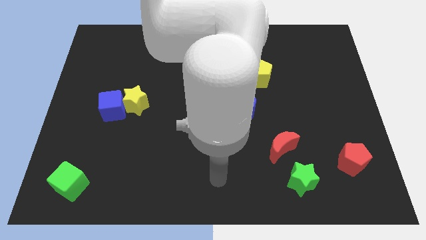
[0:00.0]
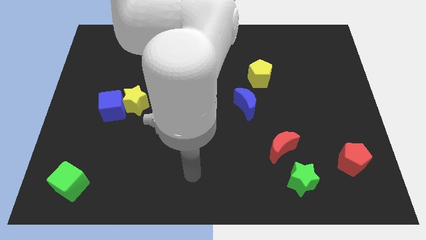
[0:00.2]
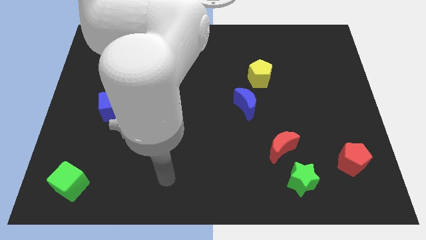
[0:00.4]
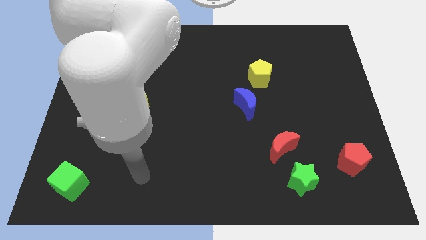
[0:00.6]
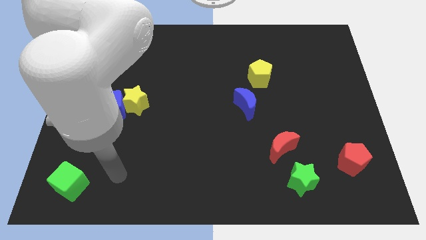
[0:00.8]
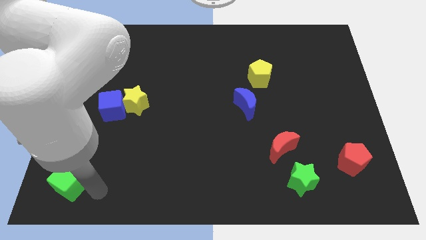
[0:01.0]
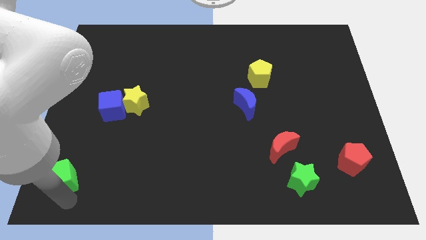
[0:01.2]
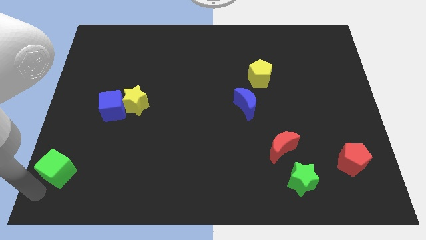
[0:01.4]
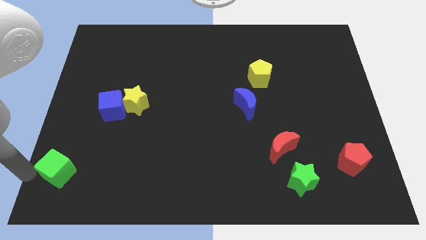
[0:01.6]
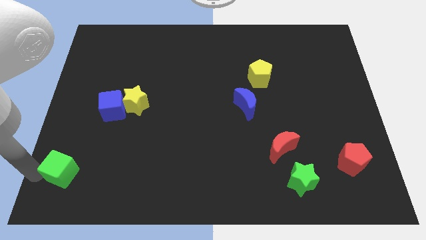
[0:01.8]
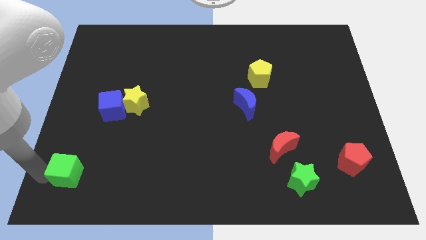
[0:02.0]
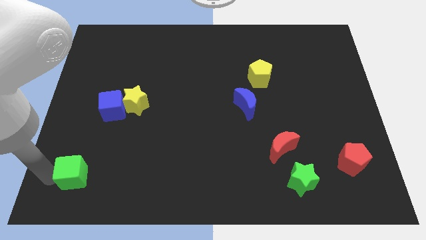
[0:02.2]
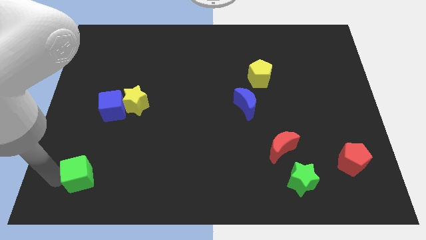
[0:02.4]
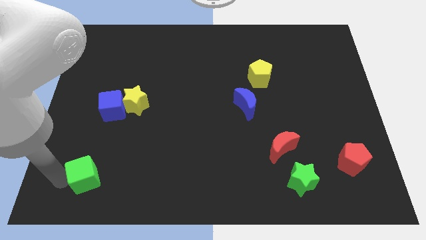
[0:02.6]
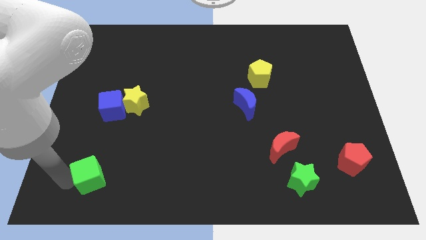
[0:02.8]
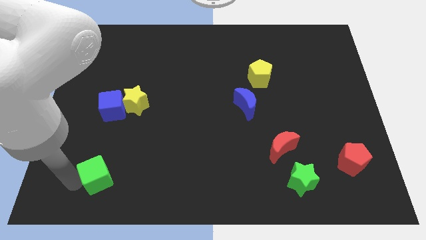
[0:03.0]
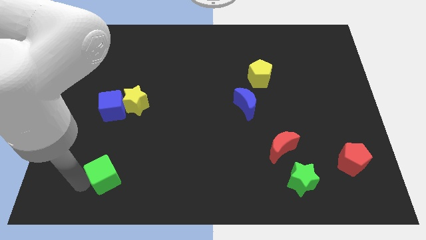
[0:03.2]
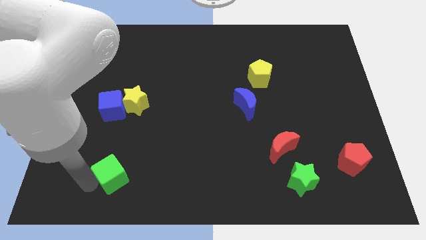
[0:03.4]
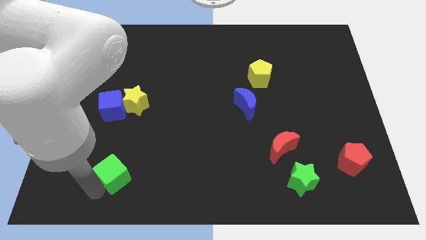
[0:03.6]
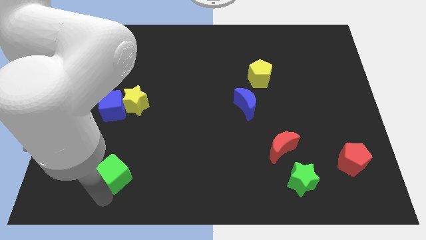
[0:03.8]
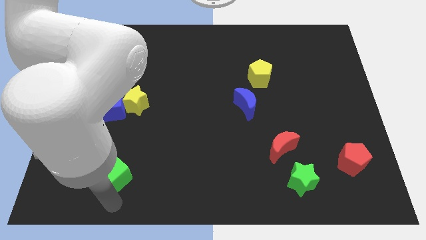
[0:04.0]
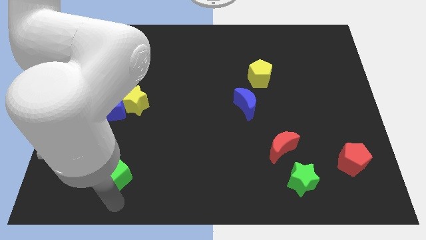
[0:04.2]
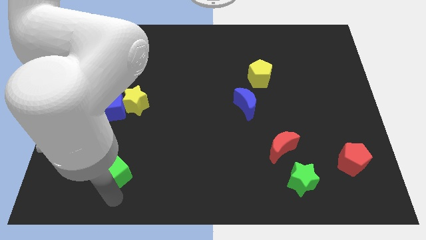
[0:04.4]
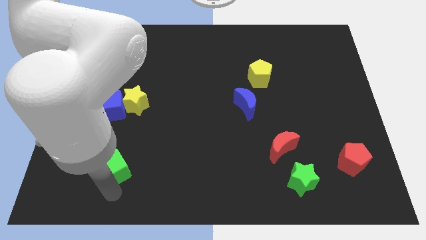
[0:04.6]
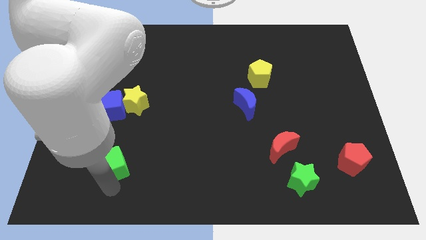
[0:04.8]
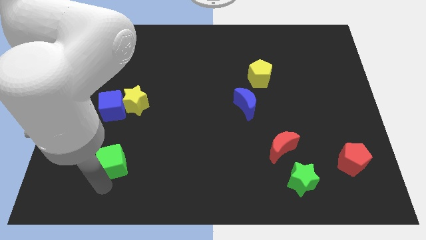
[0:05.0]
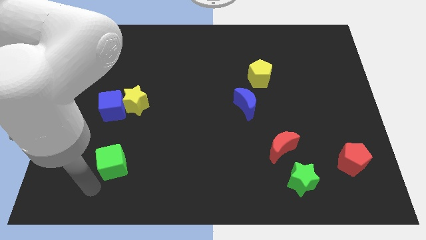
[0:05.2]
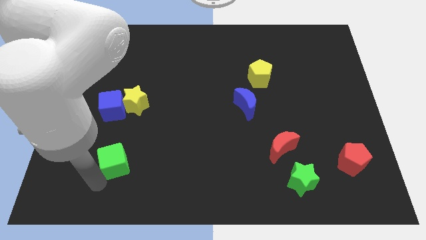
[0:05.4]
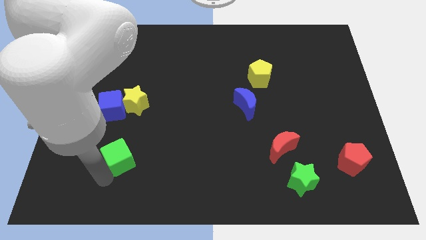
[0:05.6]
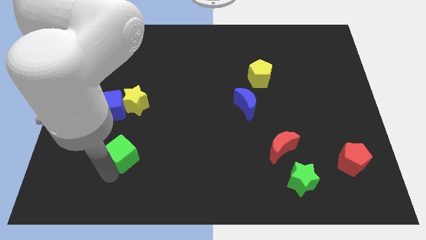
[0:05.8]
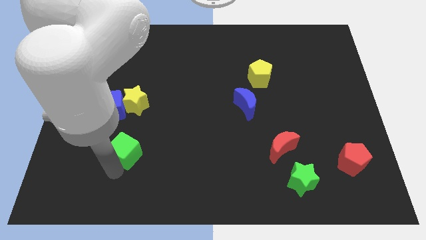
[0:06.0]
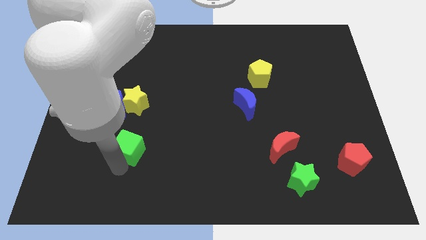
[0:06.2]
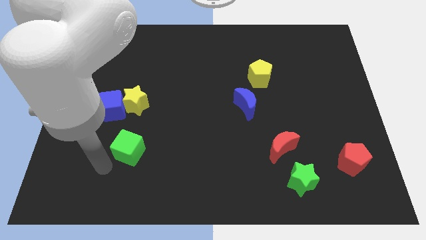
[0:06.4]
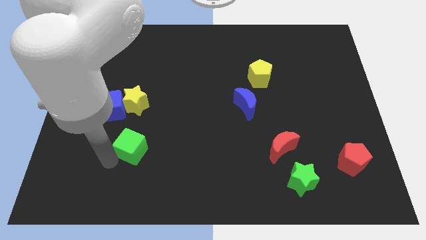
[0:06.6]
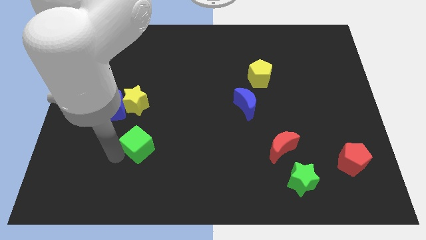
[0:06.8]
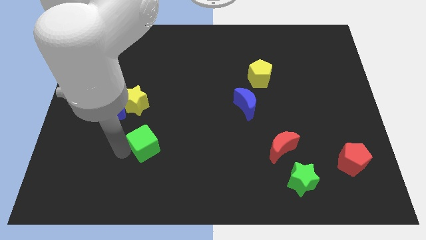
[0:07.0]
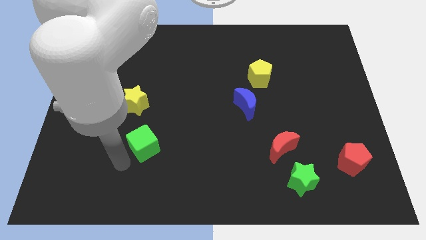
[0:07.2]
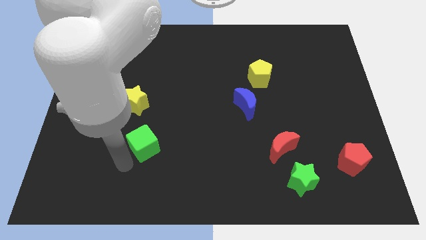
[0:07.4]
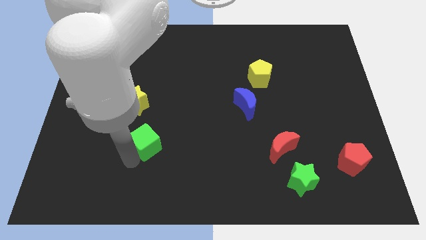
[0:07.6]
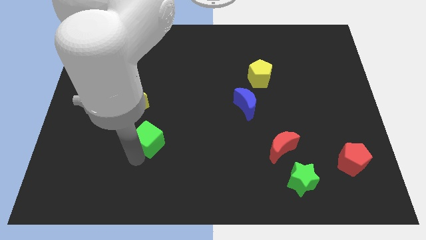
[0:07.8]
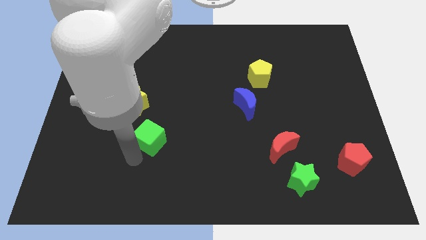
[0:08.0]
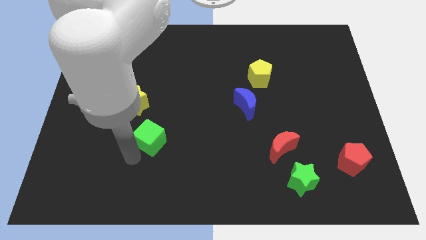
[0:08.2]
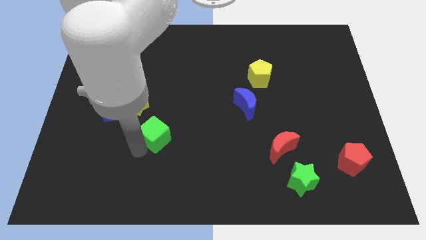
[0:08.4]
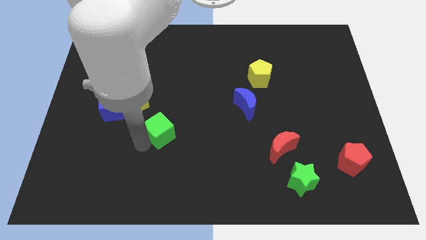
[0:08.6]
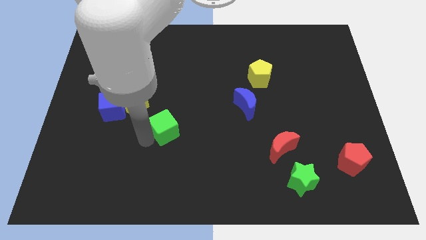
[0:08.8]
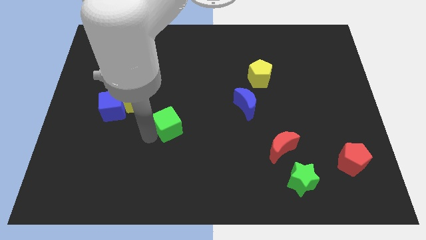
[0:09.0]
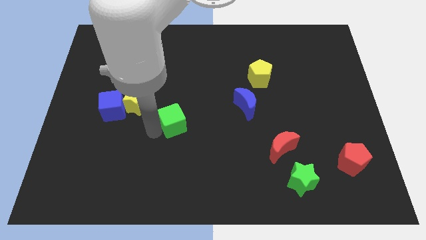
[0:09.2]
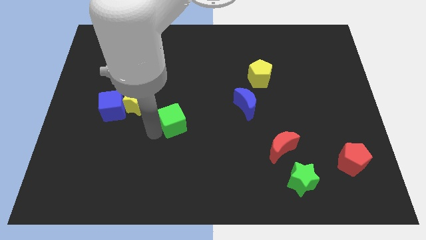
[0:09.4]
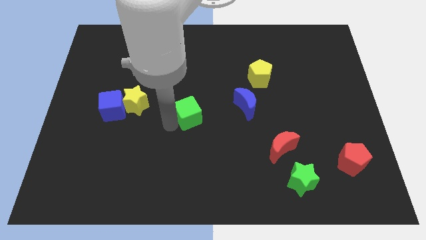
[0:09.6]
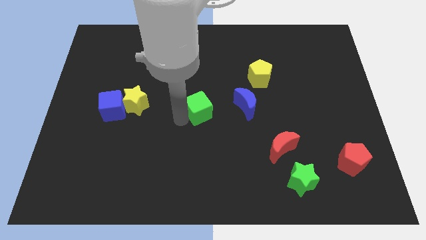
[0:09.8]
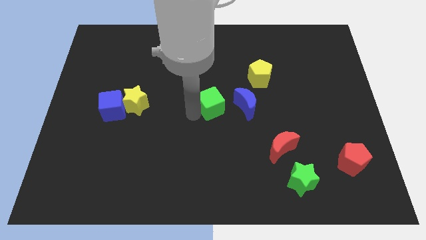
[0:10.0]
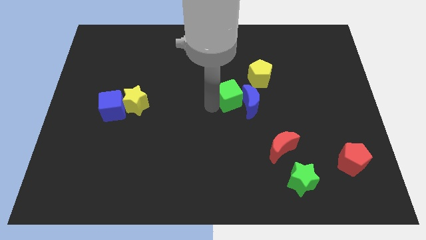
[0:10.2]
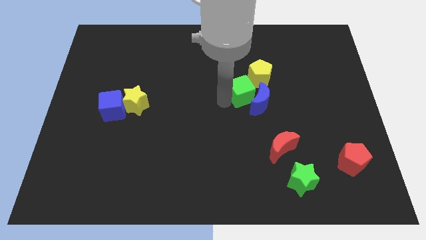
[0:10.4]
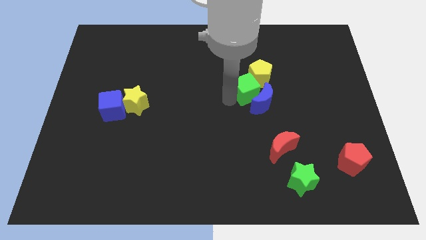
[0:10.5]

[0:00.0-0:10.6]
move the green cube close to the yellow pentagon

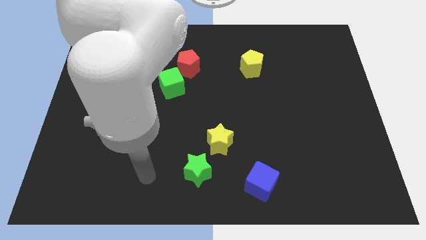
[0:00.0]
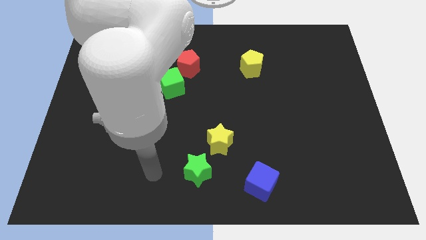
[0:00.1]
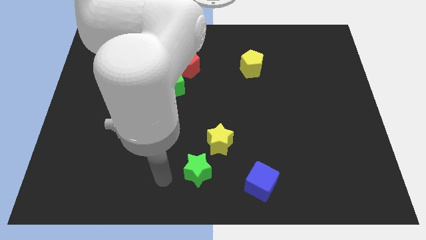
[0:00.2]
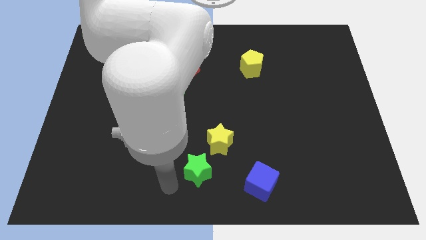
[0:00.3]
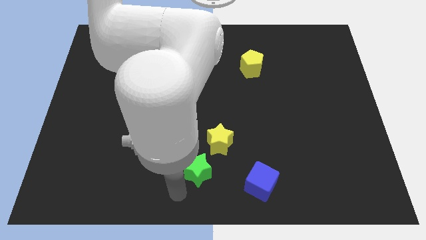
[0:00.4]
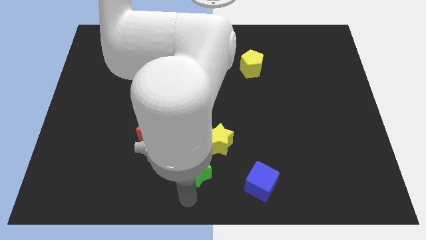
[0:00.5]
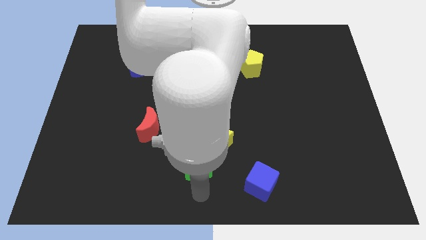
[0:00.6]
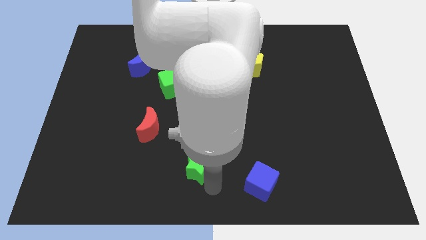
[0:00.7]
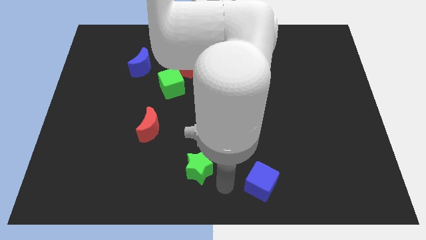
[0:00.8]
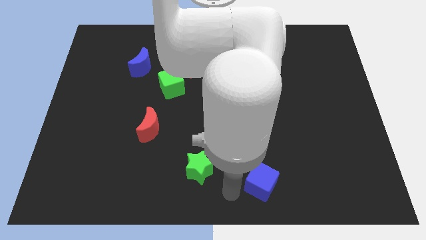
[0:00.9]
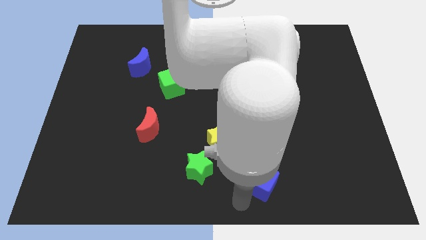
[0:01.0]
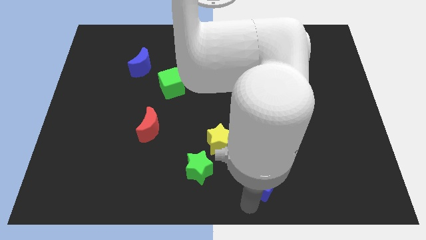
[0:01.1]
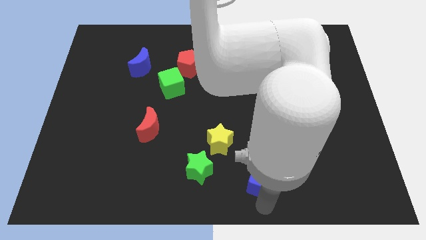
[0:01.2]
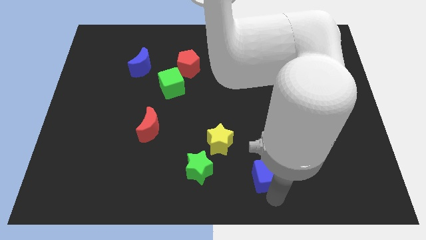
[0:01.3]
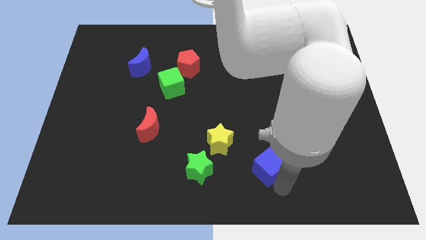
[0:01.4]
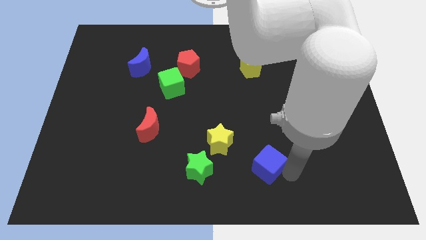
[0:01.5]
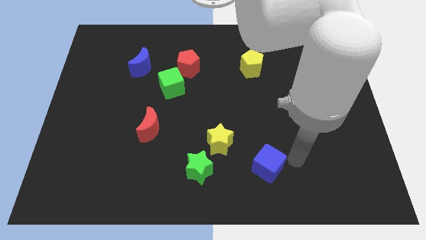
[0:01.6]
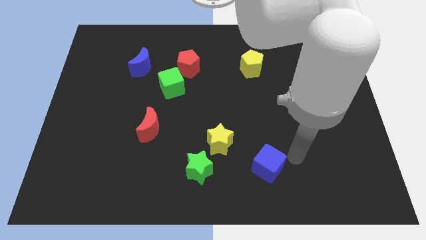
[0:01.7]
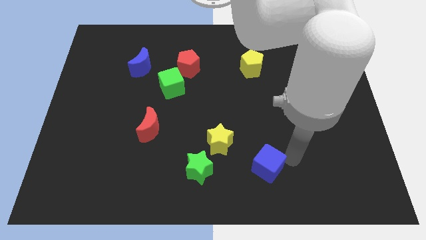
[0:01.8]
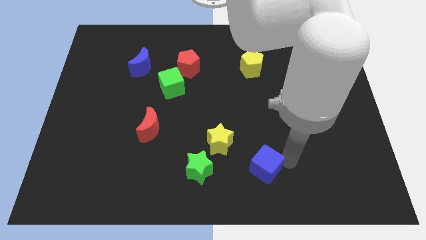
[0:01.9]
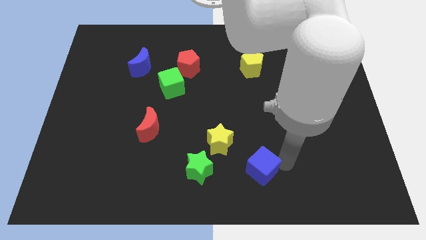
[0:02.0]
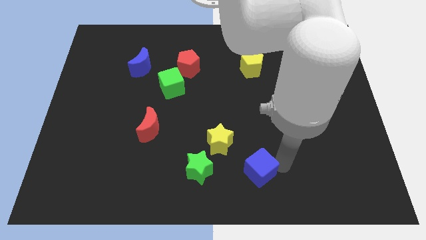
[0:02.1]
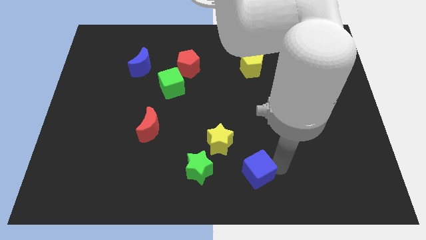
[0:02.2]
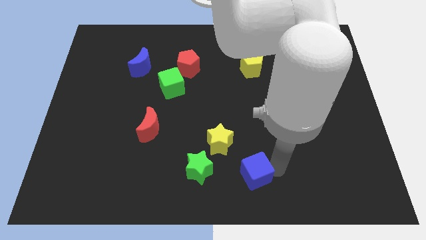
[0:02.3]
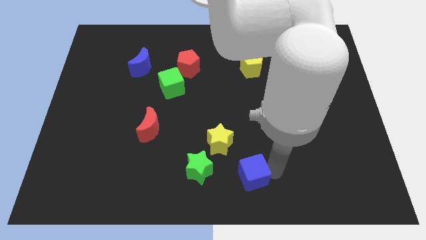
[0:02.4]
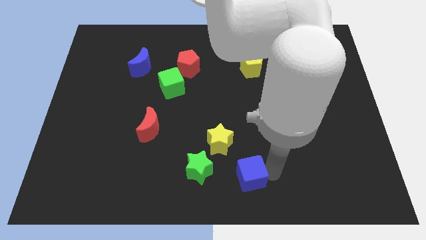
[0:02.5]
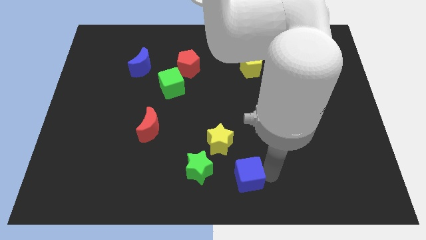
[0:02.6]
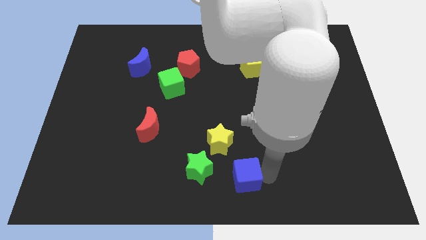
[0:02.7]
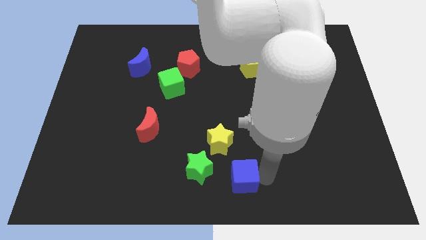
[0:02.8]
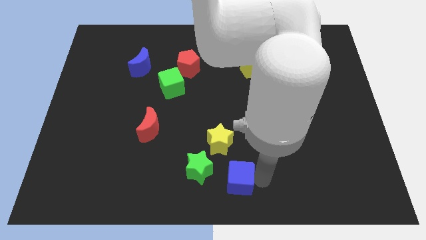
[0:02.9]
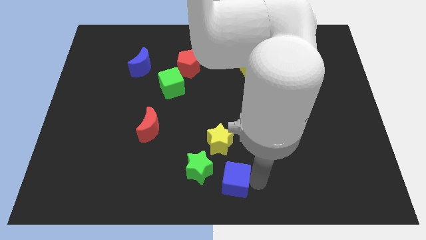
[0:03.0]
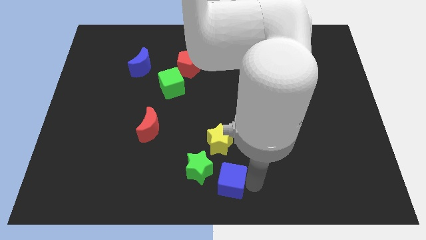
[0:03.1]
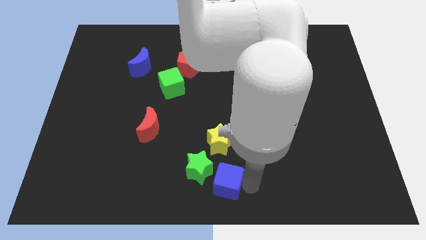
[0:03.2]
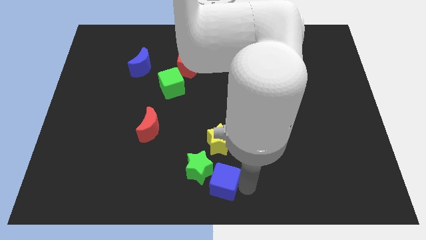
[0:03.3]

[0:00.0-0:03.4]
put the blue cube towards the green star
